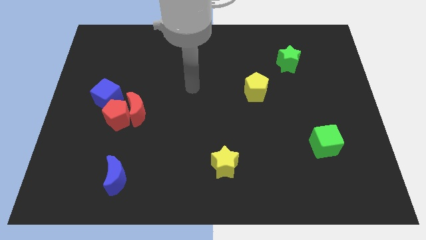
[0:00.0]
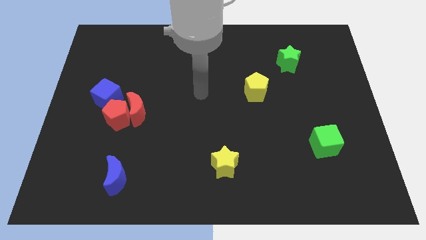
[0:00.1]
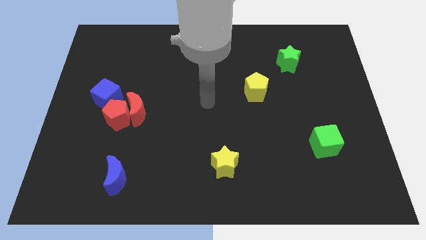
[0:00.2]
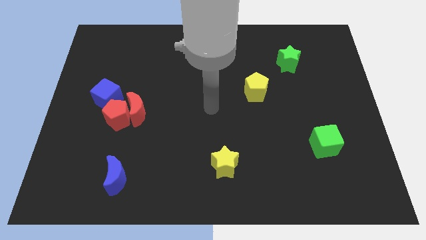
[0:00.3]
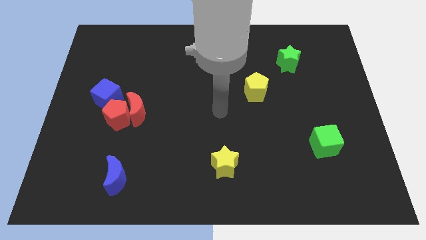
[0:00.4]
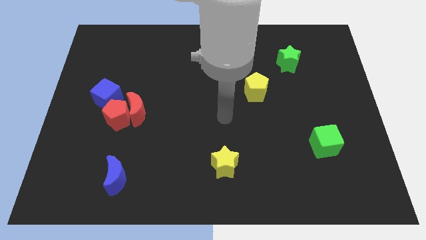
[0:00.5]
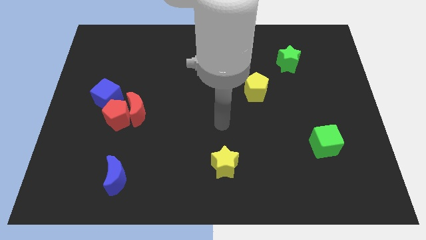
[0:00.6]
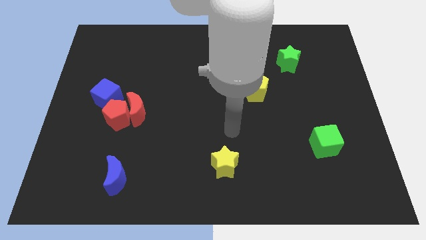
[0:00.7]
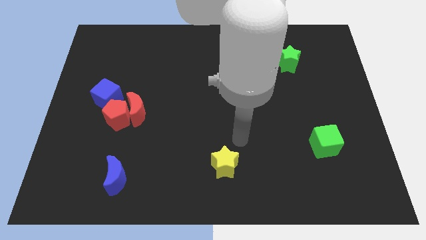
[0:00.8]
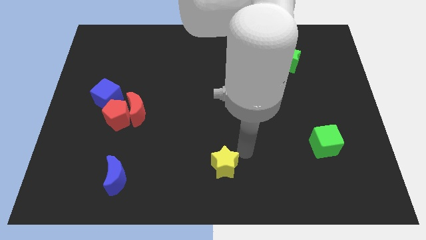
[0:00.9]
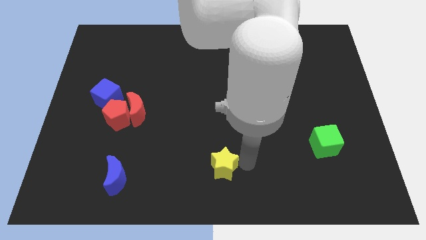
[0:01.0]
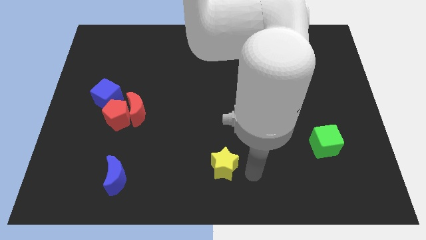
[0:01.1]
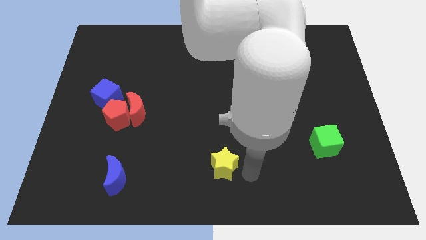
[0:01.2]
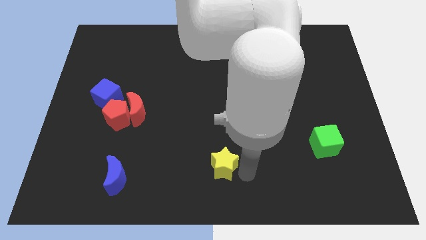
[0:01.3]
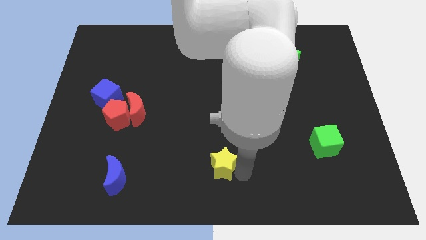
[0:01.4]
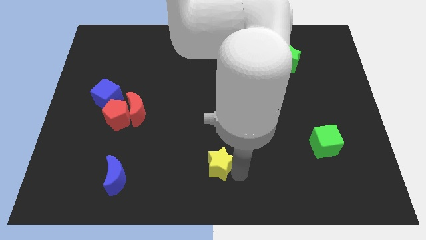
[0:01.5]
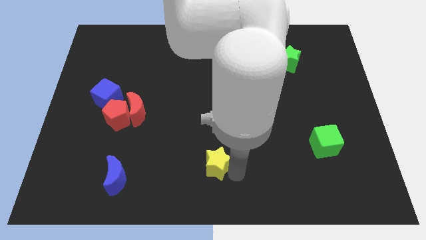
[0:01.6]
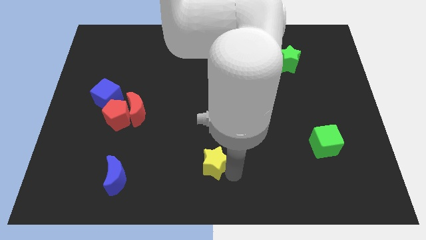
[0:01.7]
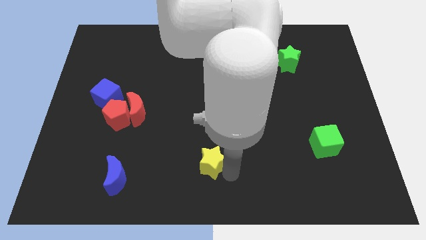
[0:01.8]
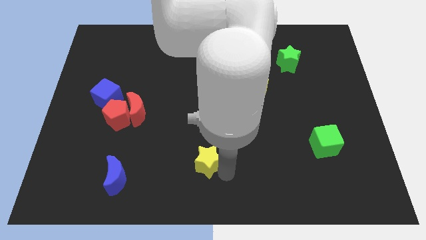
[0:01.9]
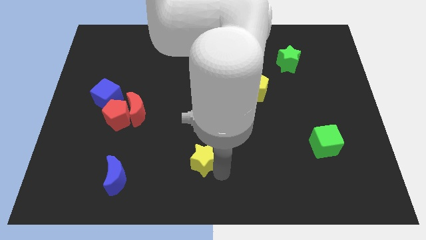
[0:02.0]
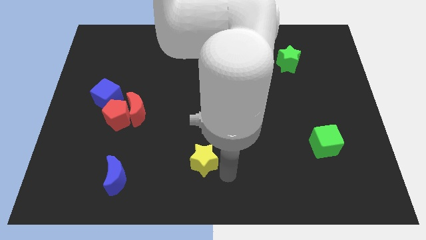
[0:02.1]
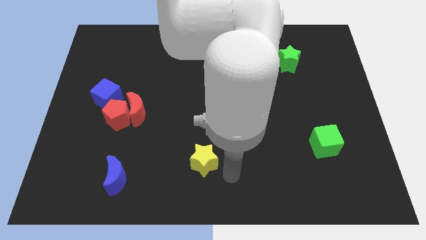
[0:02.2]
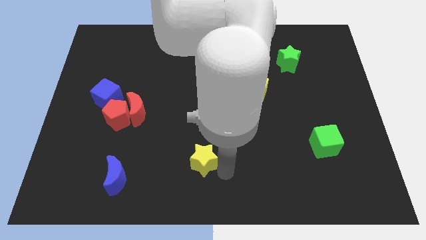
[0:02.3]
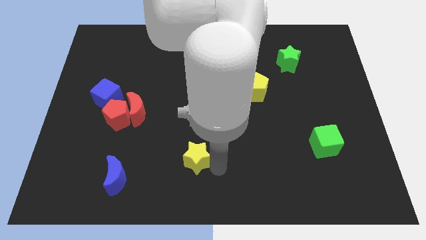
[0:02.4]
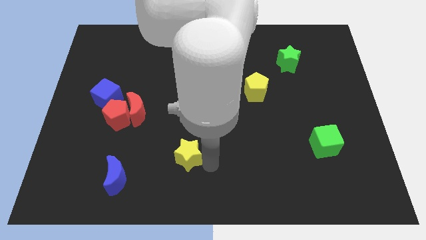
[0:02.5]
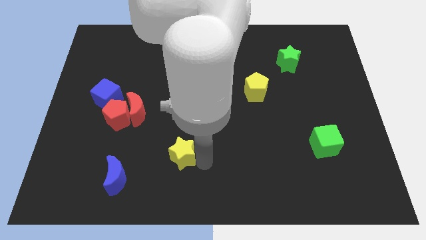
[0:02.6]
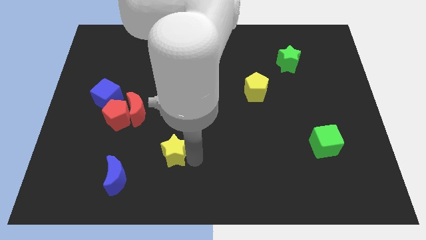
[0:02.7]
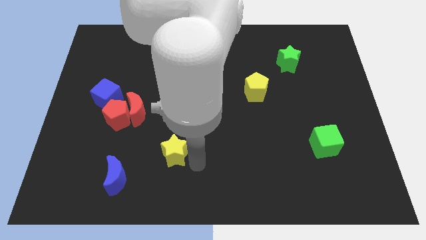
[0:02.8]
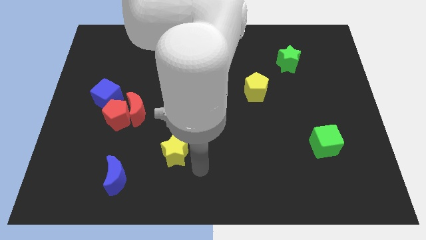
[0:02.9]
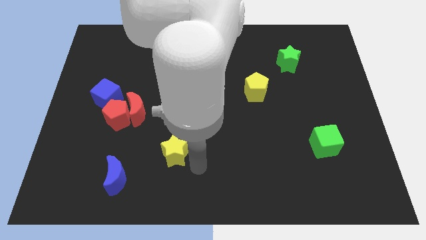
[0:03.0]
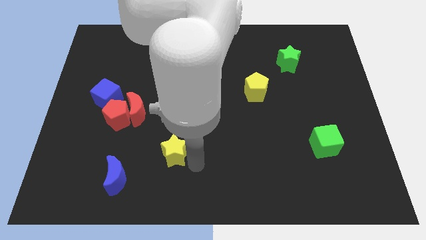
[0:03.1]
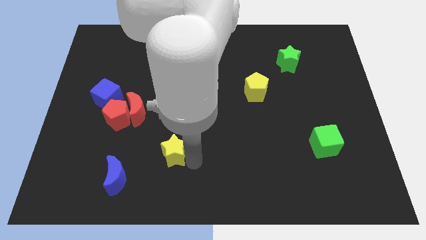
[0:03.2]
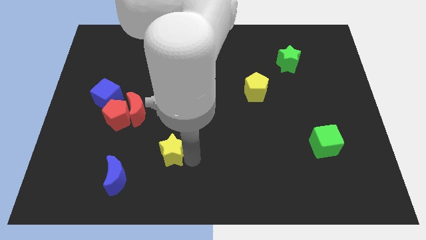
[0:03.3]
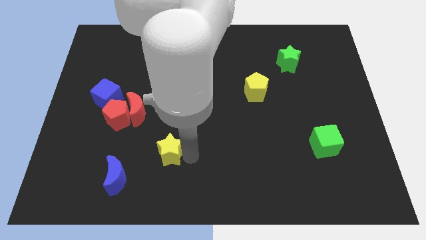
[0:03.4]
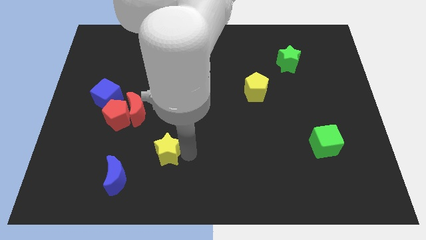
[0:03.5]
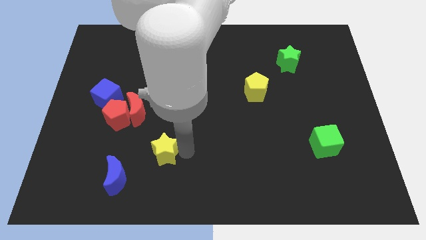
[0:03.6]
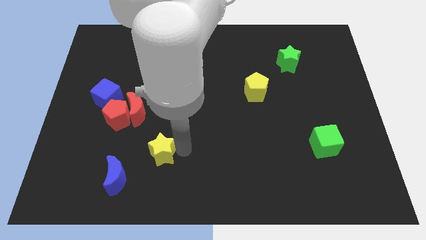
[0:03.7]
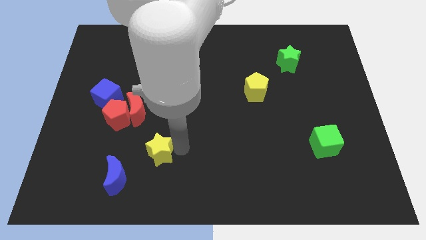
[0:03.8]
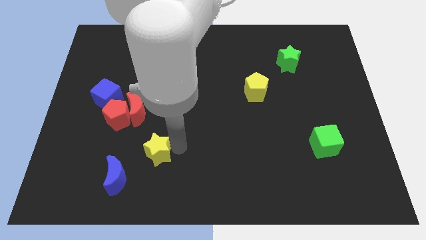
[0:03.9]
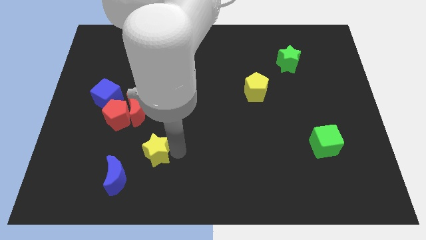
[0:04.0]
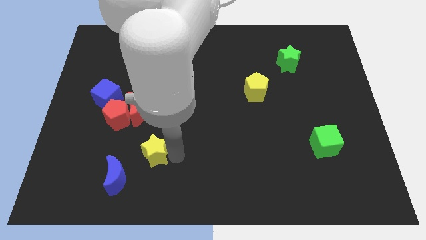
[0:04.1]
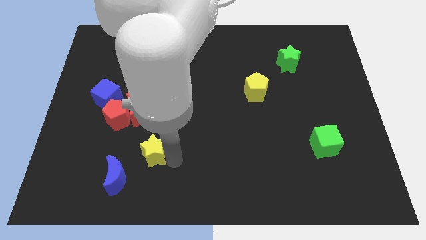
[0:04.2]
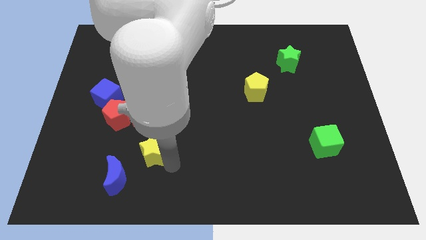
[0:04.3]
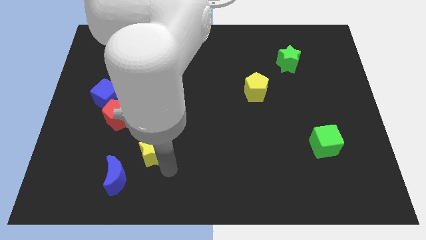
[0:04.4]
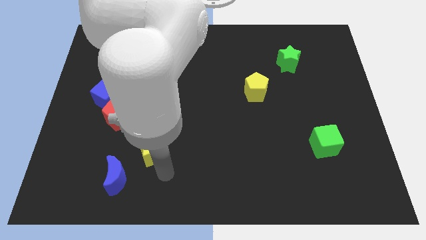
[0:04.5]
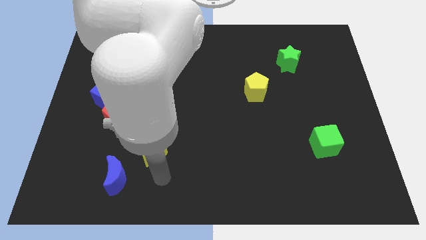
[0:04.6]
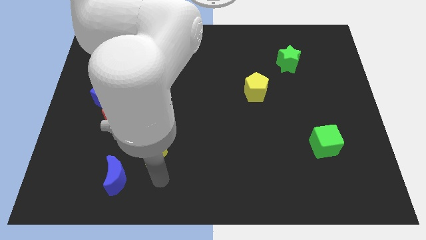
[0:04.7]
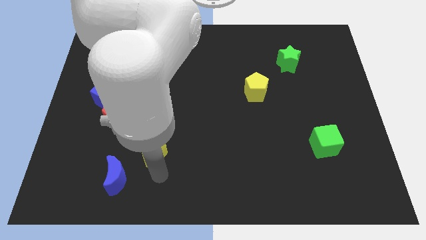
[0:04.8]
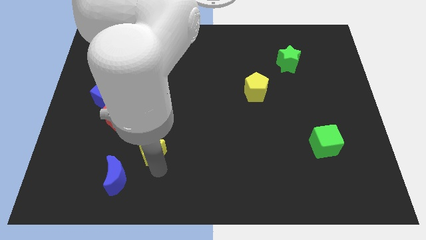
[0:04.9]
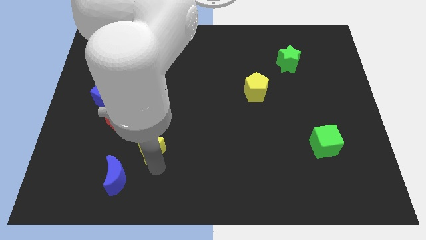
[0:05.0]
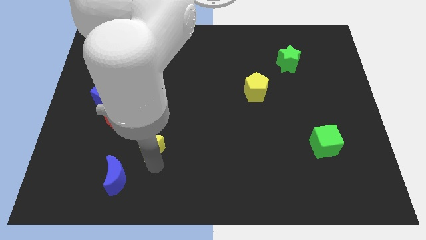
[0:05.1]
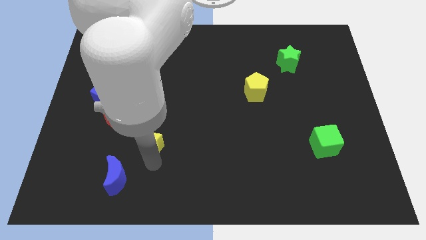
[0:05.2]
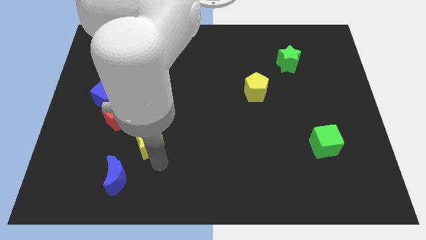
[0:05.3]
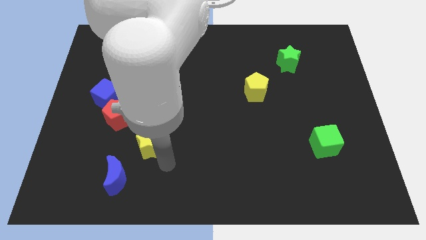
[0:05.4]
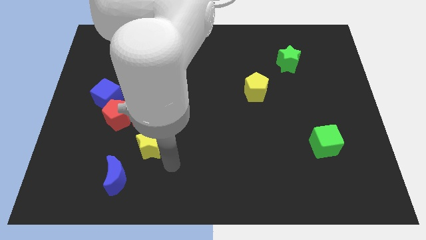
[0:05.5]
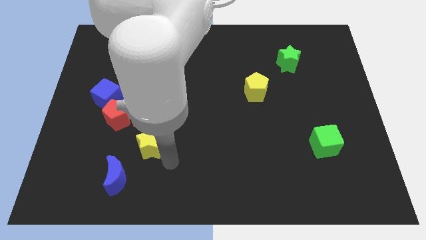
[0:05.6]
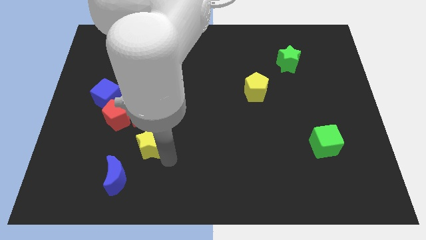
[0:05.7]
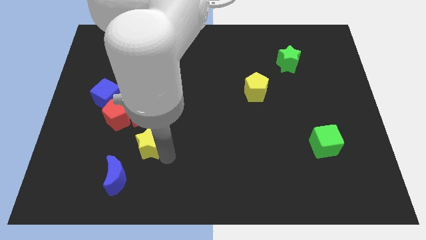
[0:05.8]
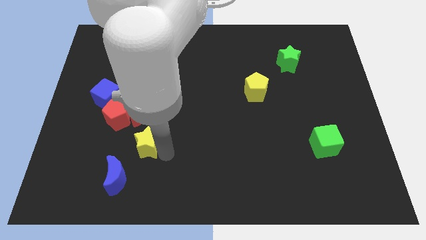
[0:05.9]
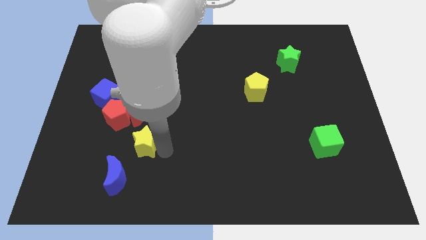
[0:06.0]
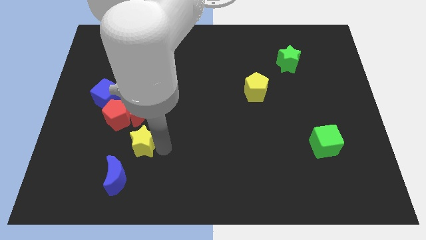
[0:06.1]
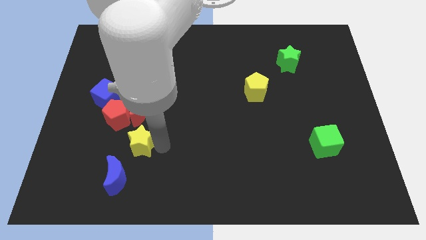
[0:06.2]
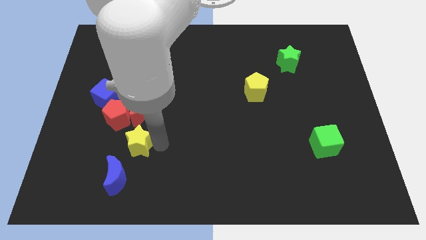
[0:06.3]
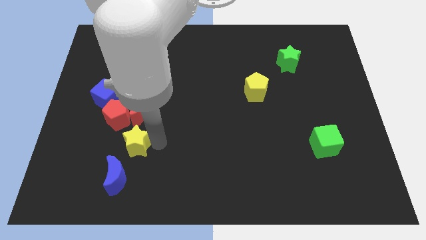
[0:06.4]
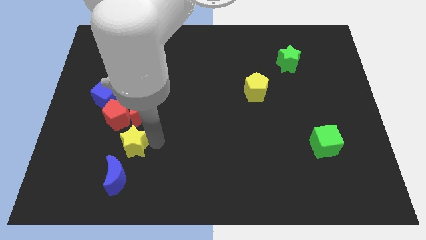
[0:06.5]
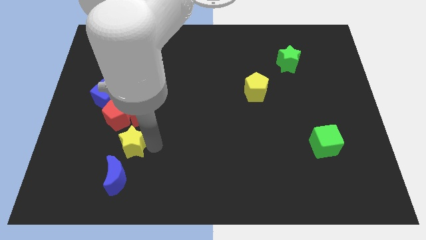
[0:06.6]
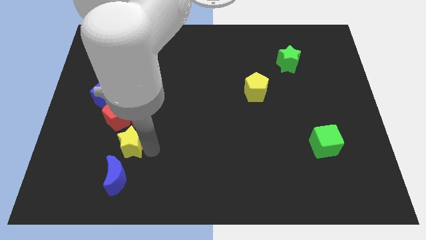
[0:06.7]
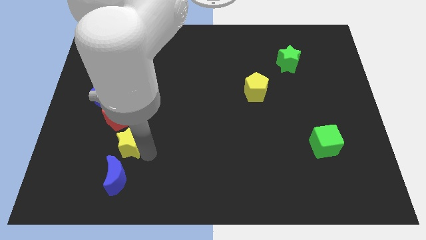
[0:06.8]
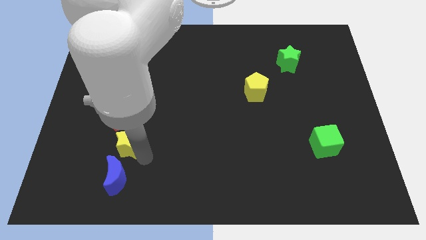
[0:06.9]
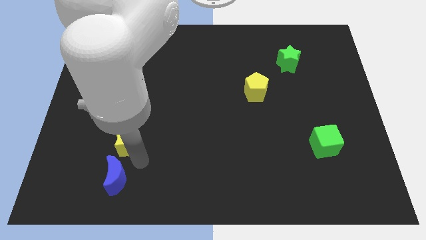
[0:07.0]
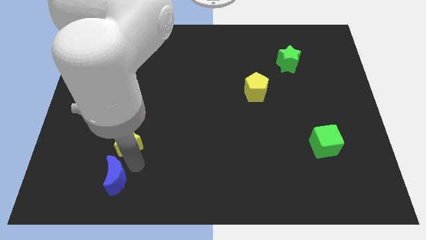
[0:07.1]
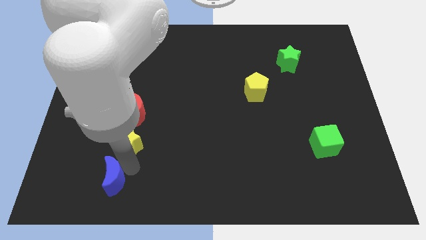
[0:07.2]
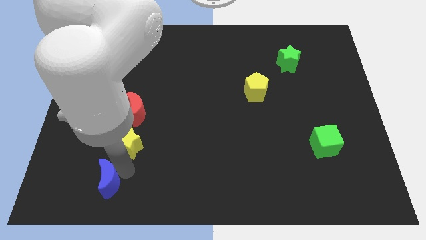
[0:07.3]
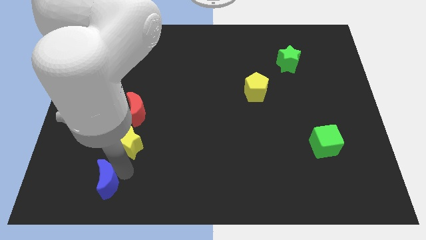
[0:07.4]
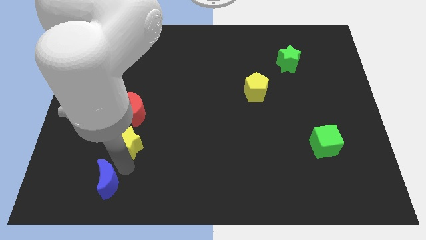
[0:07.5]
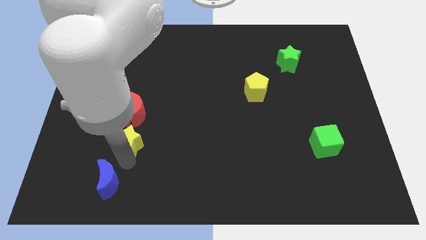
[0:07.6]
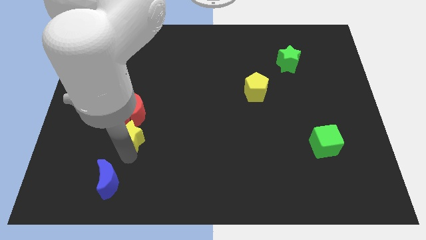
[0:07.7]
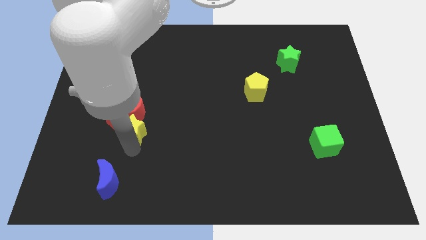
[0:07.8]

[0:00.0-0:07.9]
push the yellow star next to the red pentagon

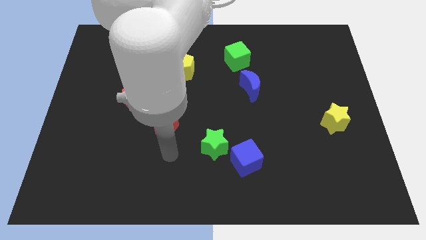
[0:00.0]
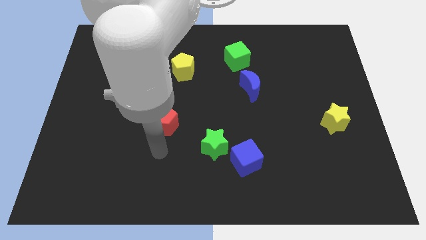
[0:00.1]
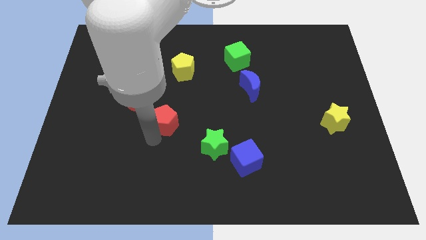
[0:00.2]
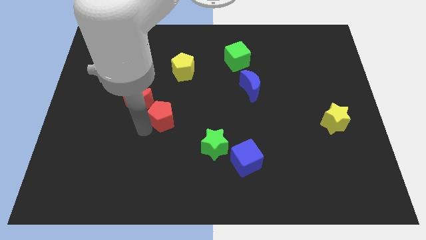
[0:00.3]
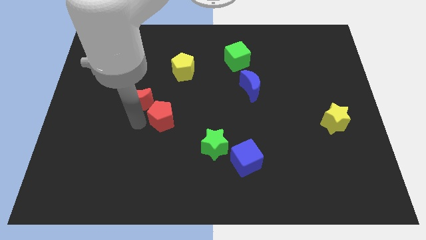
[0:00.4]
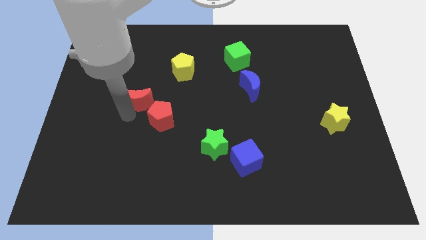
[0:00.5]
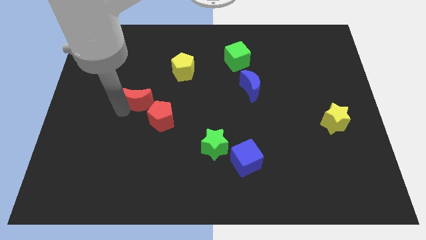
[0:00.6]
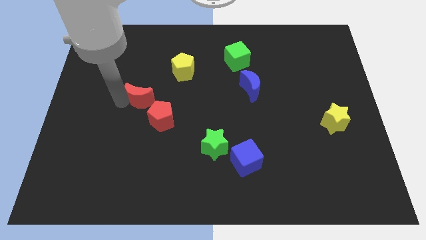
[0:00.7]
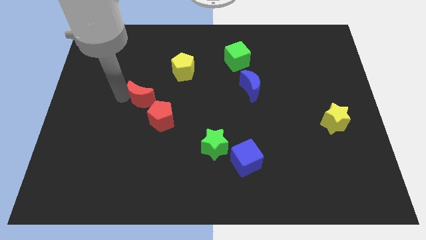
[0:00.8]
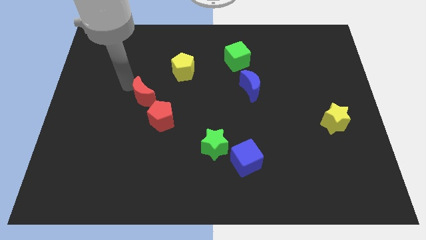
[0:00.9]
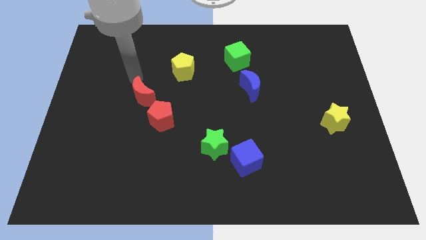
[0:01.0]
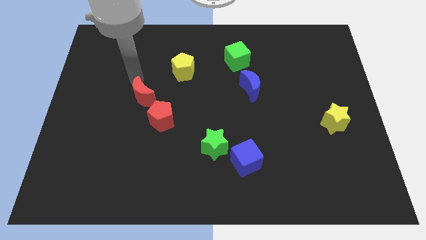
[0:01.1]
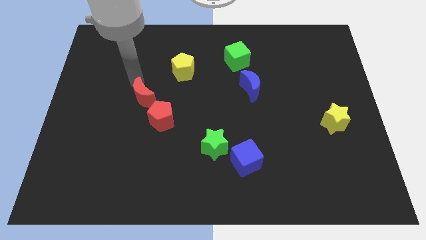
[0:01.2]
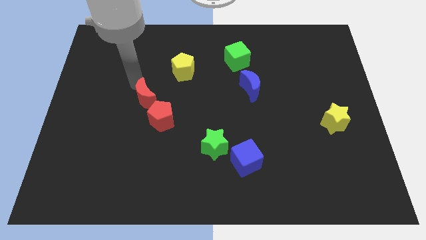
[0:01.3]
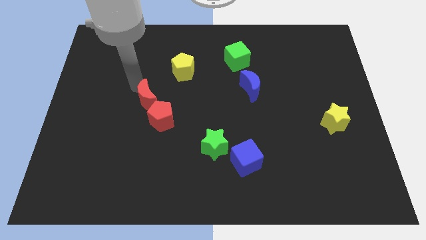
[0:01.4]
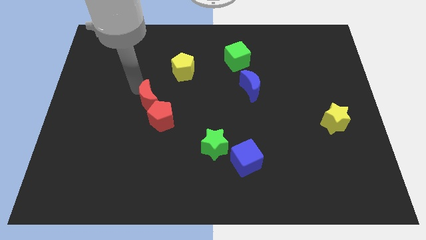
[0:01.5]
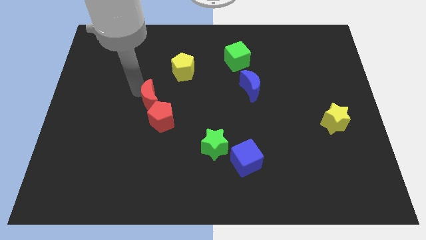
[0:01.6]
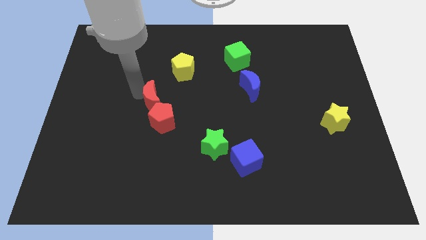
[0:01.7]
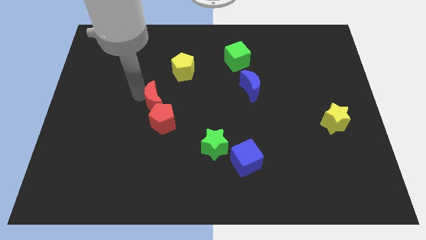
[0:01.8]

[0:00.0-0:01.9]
move the red moon towards the red pentagon
